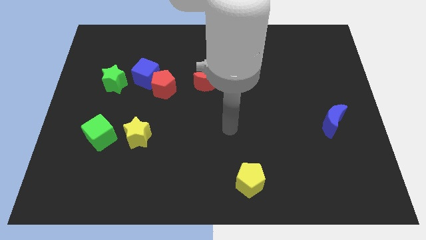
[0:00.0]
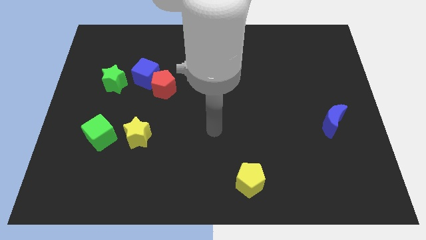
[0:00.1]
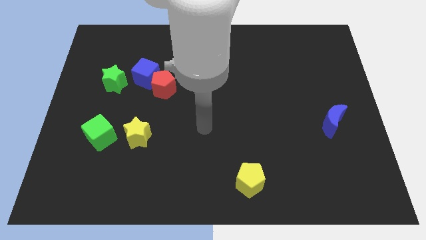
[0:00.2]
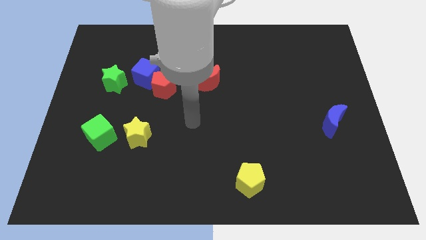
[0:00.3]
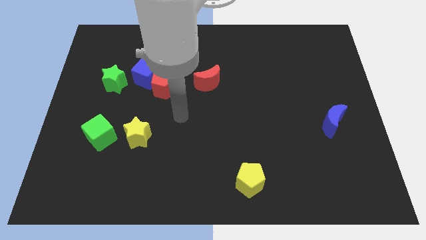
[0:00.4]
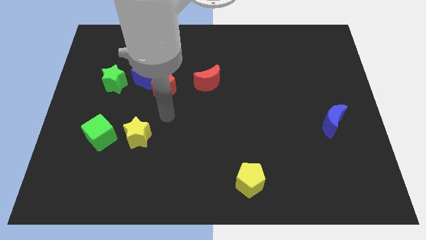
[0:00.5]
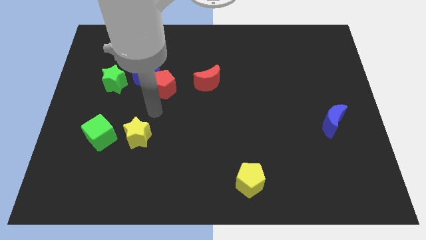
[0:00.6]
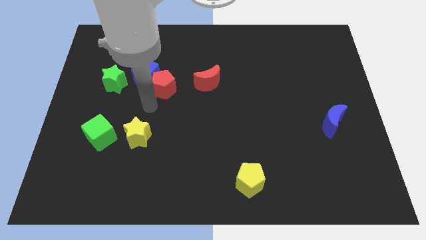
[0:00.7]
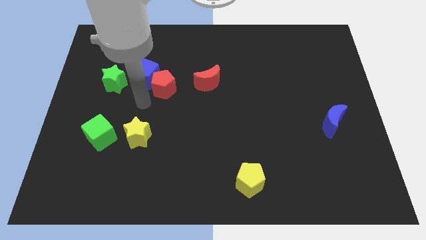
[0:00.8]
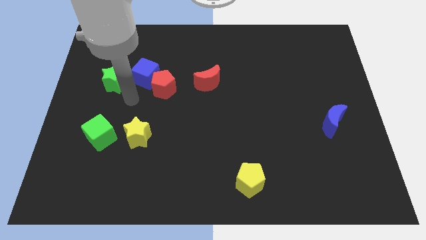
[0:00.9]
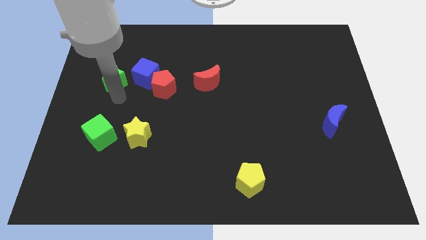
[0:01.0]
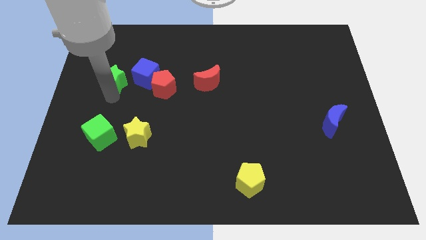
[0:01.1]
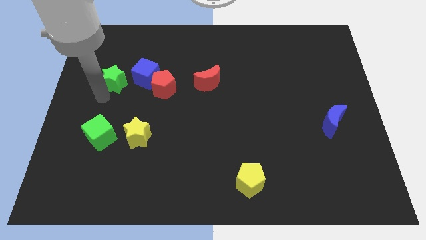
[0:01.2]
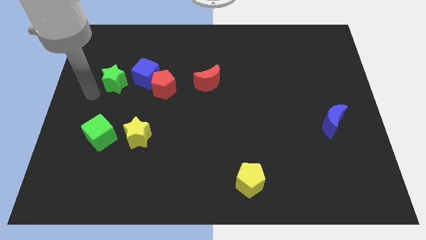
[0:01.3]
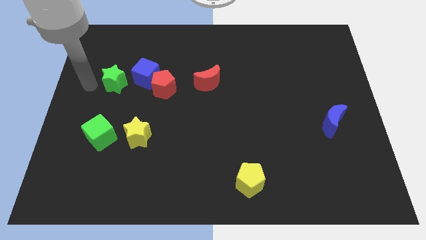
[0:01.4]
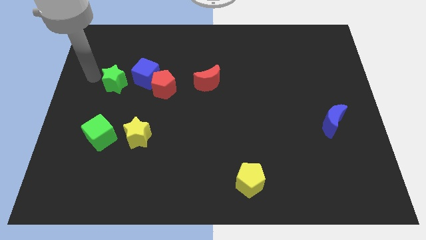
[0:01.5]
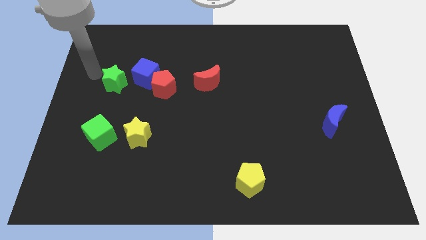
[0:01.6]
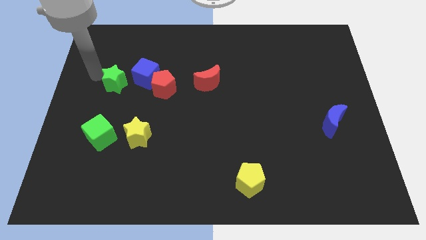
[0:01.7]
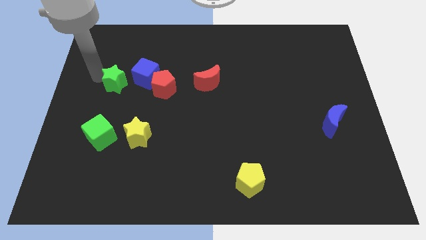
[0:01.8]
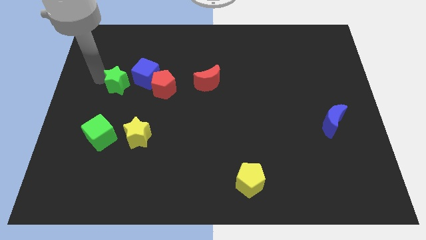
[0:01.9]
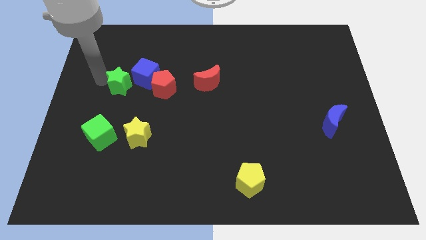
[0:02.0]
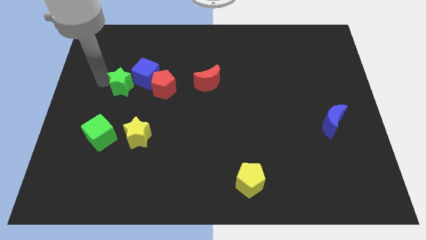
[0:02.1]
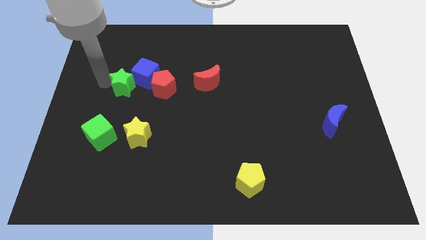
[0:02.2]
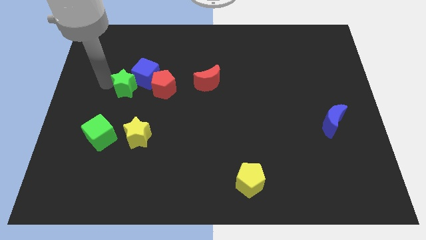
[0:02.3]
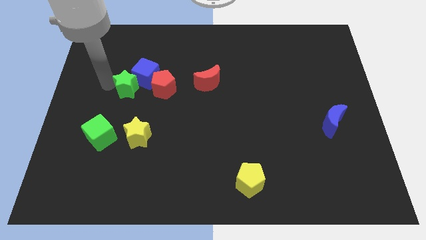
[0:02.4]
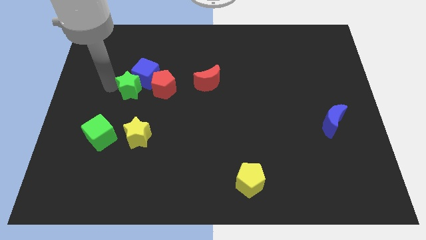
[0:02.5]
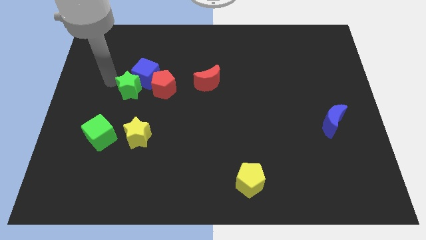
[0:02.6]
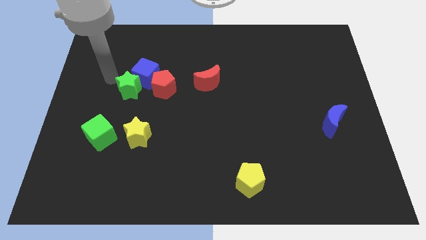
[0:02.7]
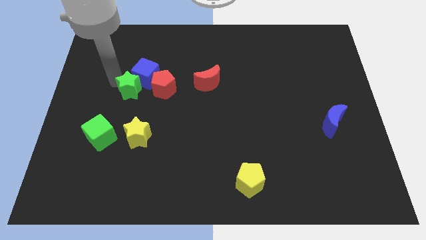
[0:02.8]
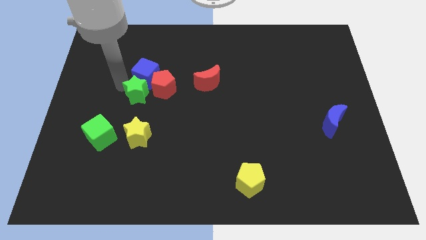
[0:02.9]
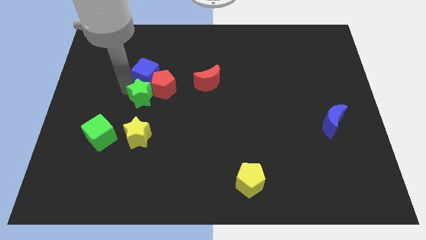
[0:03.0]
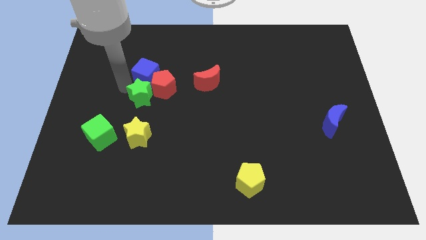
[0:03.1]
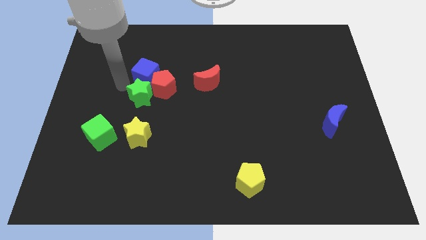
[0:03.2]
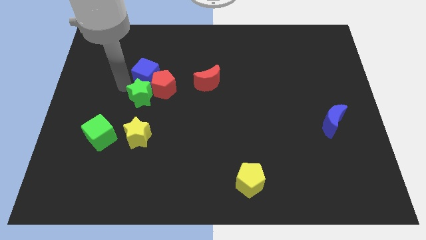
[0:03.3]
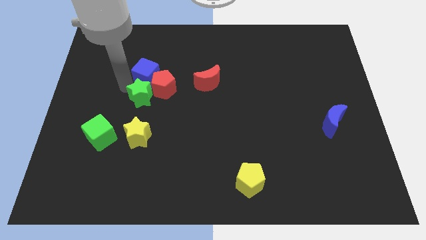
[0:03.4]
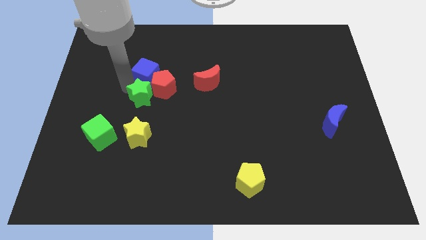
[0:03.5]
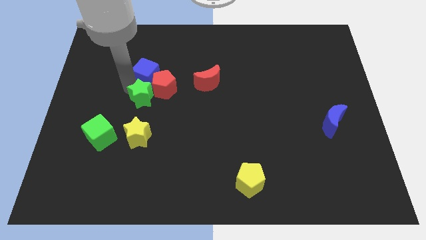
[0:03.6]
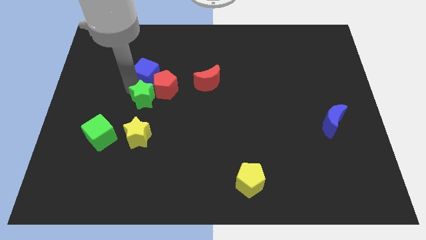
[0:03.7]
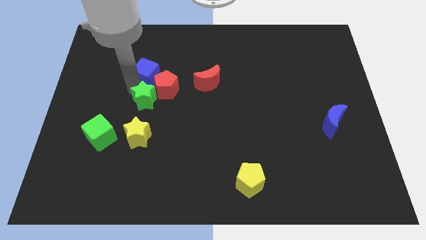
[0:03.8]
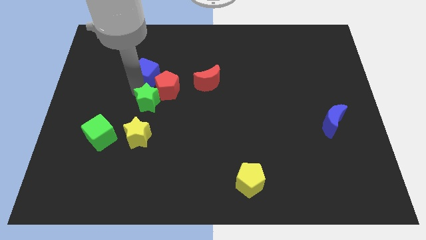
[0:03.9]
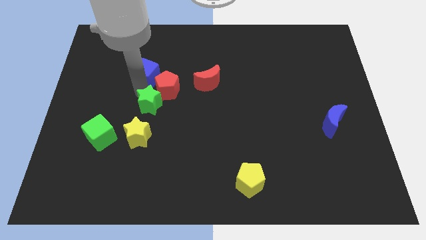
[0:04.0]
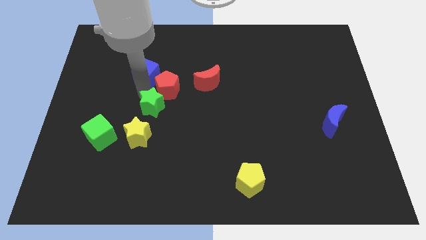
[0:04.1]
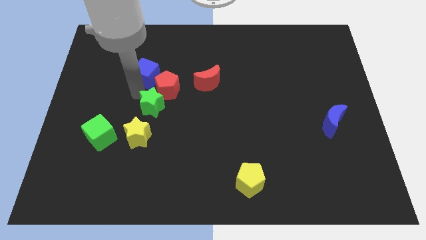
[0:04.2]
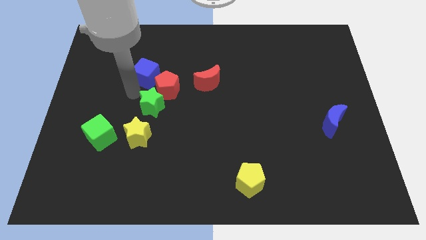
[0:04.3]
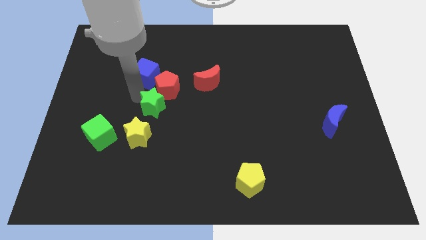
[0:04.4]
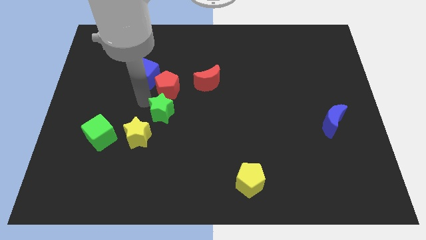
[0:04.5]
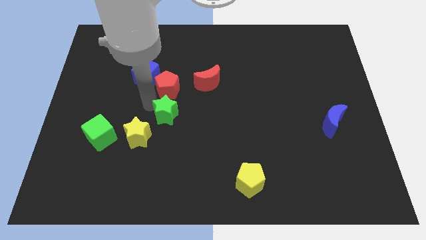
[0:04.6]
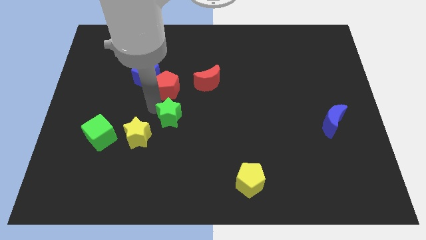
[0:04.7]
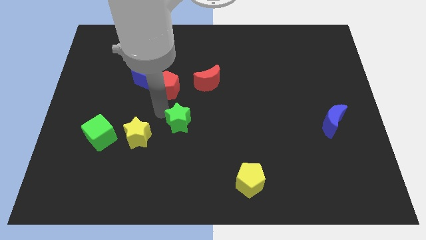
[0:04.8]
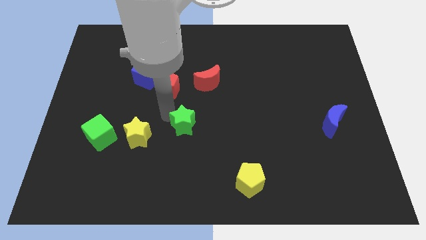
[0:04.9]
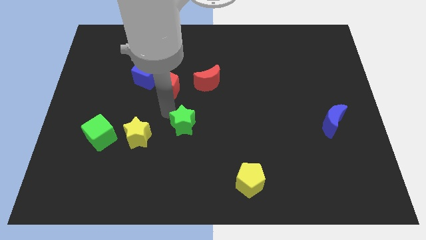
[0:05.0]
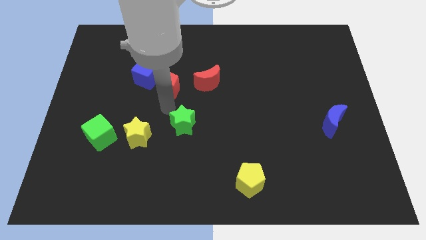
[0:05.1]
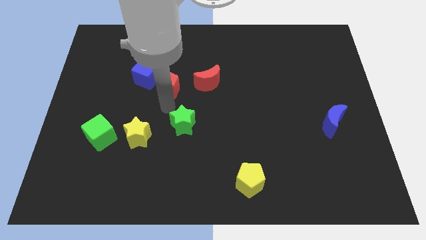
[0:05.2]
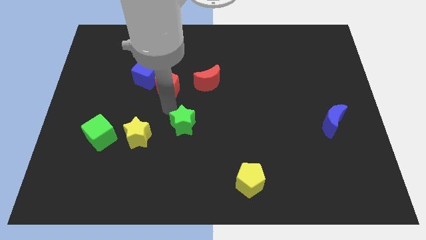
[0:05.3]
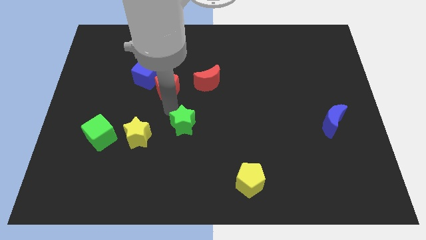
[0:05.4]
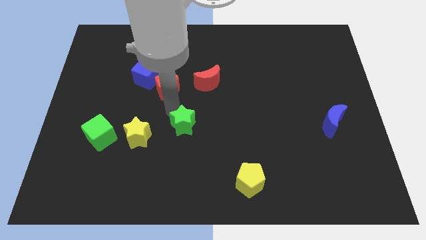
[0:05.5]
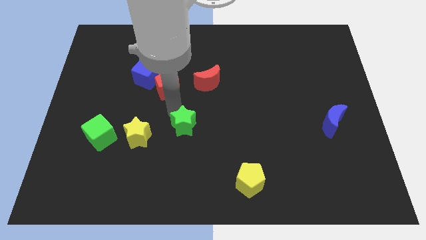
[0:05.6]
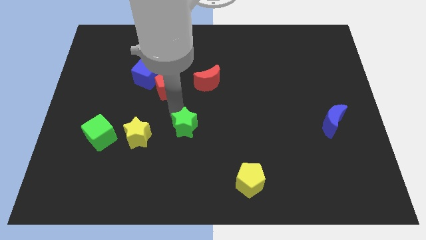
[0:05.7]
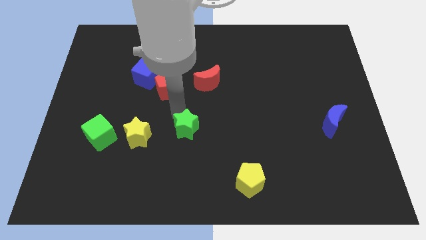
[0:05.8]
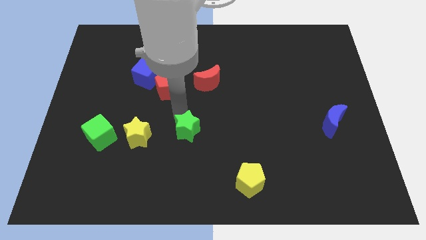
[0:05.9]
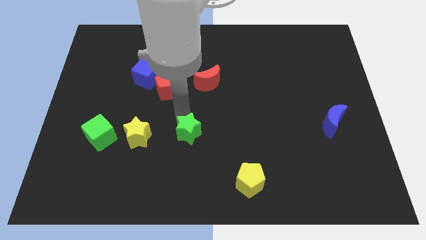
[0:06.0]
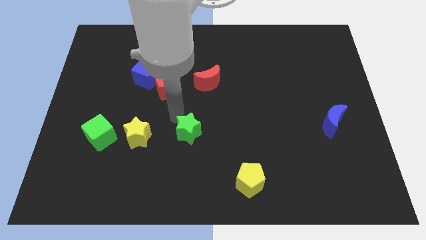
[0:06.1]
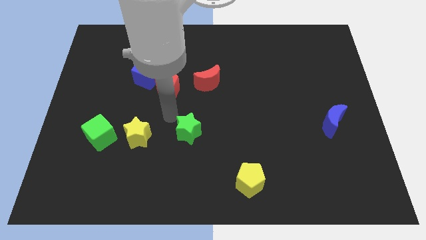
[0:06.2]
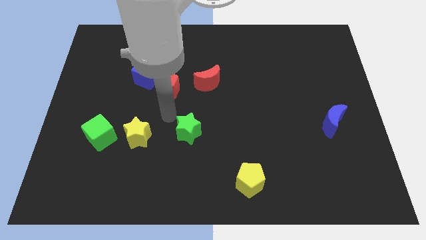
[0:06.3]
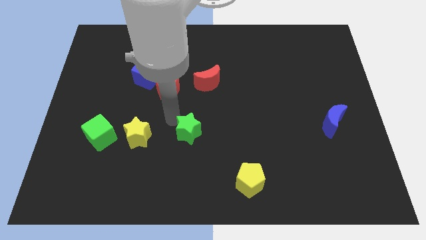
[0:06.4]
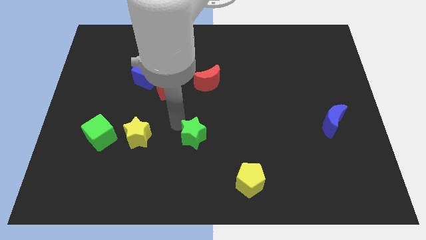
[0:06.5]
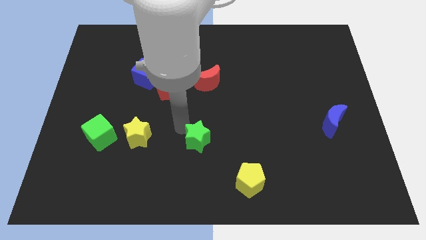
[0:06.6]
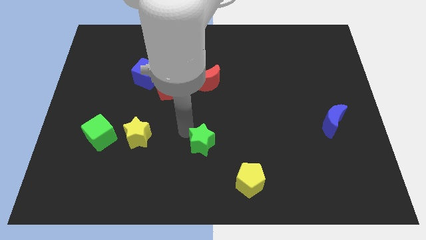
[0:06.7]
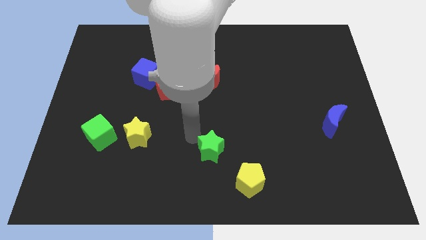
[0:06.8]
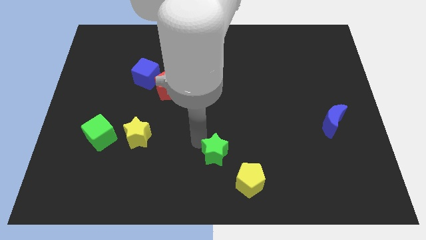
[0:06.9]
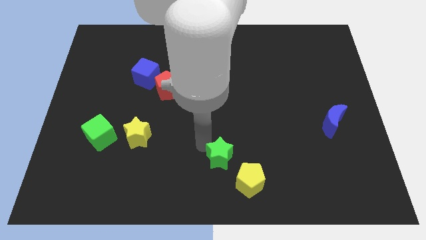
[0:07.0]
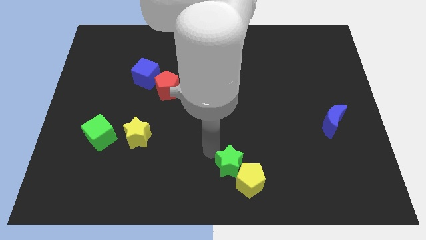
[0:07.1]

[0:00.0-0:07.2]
slide the green star to the yellow pentagon
